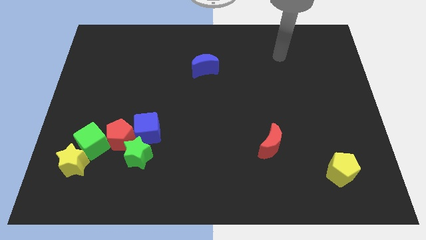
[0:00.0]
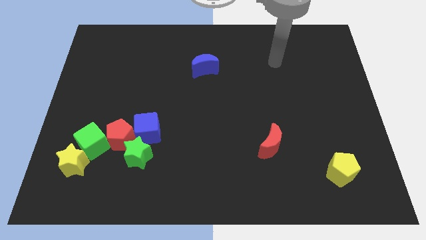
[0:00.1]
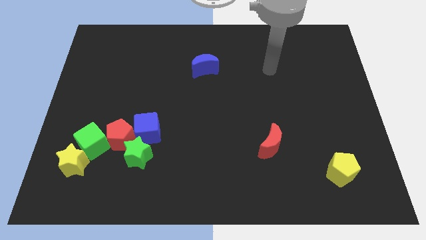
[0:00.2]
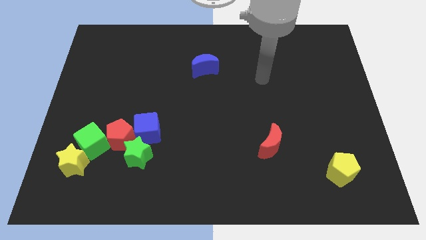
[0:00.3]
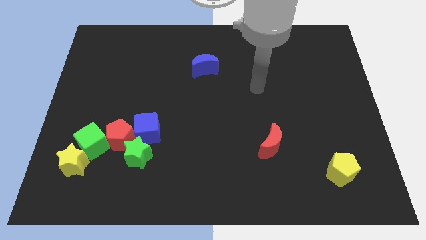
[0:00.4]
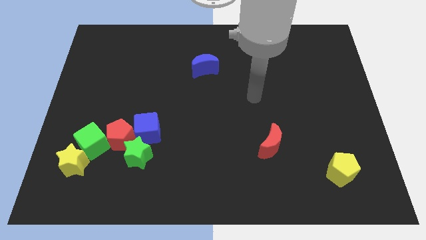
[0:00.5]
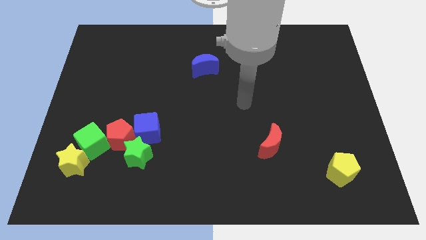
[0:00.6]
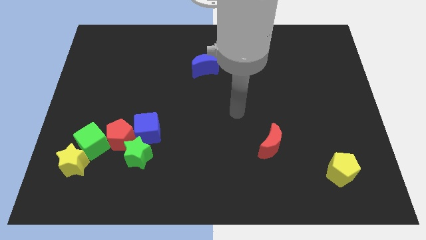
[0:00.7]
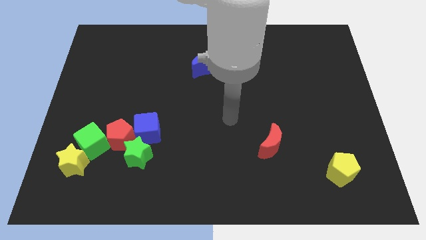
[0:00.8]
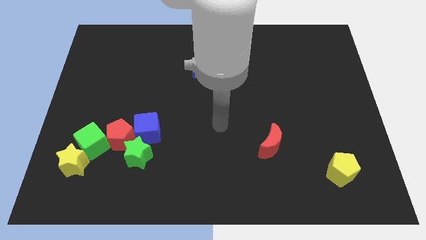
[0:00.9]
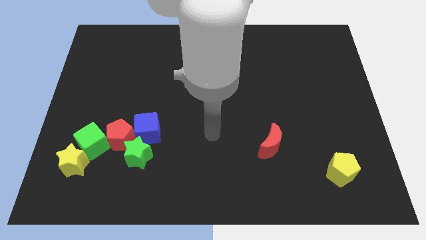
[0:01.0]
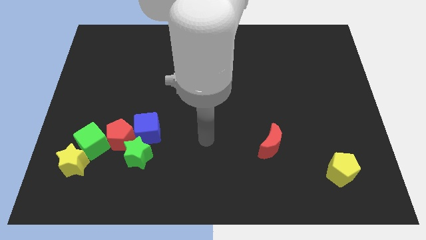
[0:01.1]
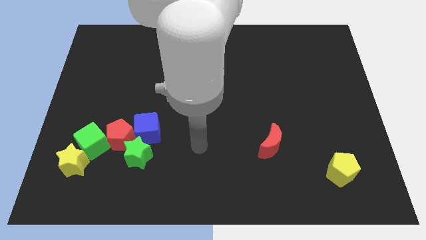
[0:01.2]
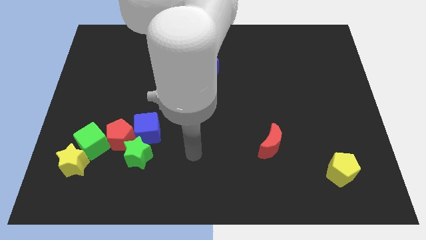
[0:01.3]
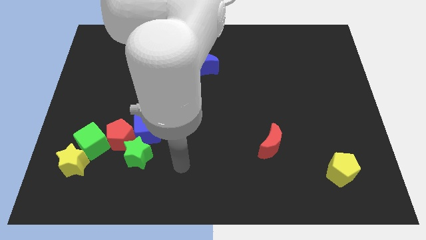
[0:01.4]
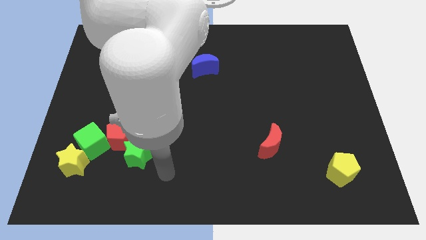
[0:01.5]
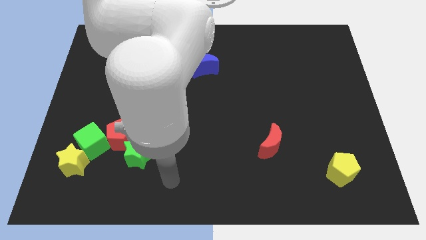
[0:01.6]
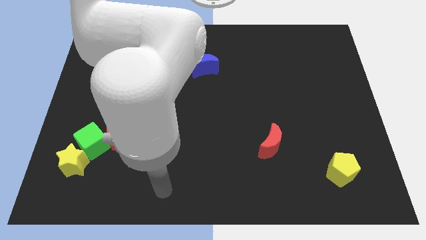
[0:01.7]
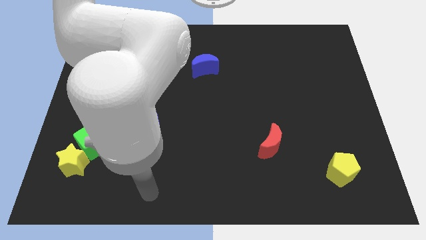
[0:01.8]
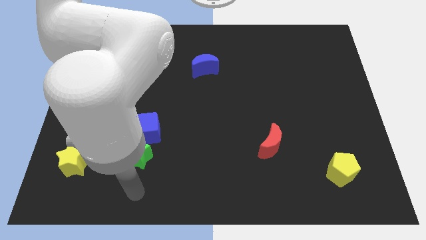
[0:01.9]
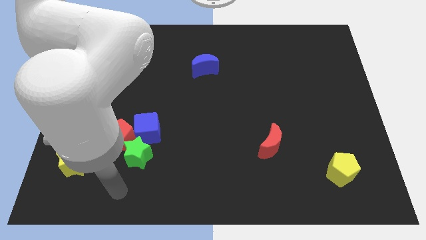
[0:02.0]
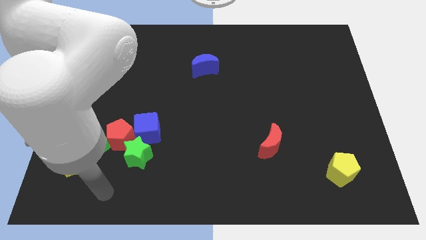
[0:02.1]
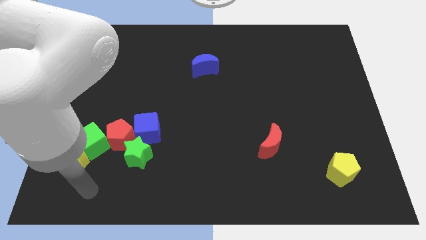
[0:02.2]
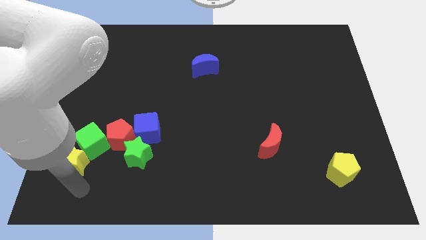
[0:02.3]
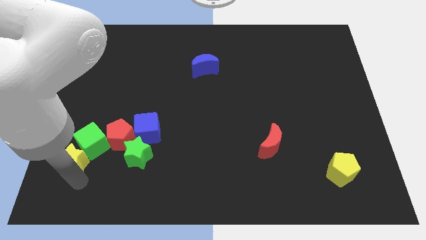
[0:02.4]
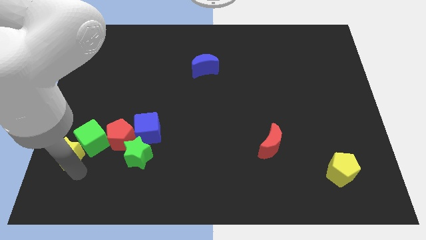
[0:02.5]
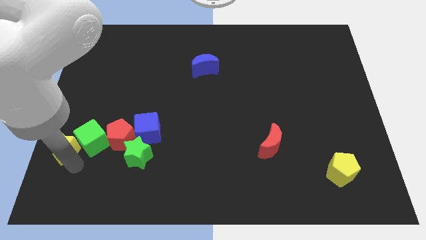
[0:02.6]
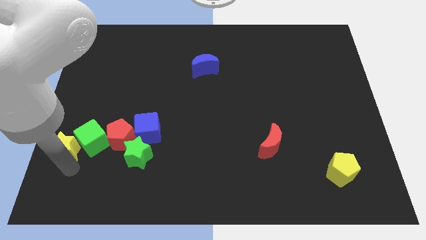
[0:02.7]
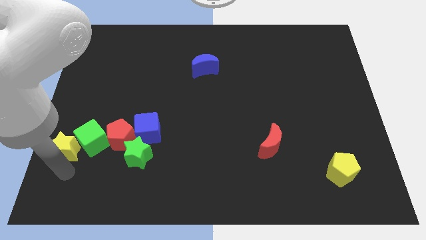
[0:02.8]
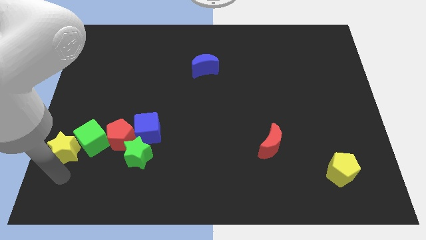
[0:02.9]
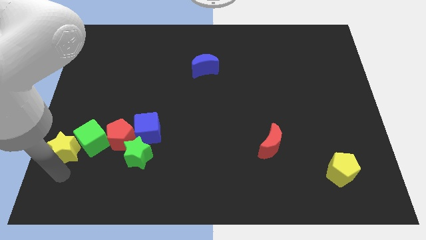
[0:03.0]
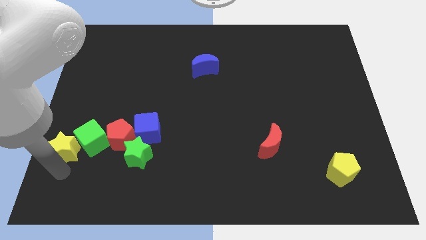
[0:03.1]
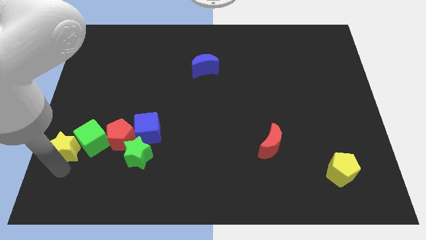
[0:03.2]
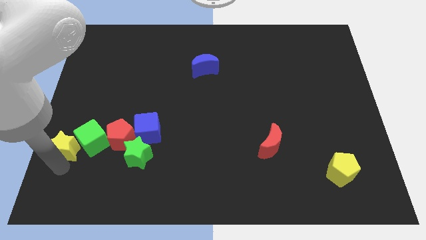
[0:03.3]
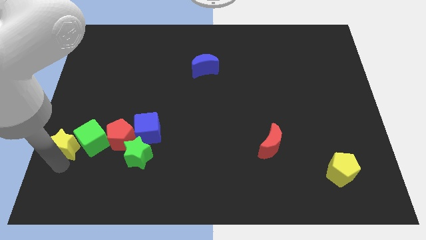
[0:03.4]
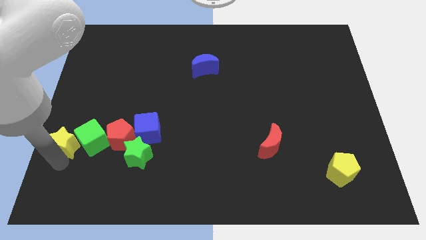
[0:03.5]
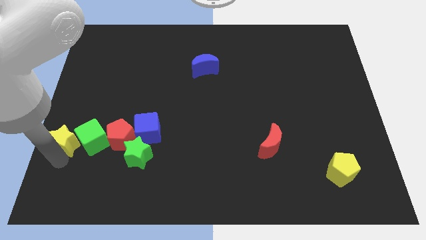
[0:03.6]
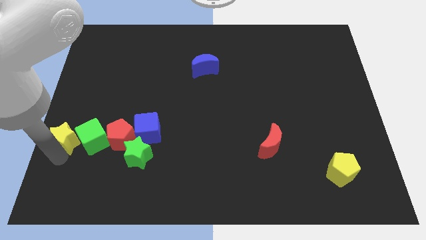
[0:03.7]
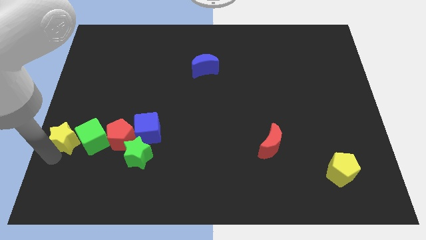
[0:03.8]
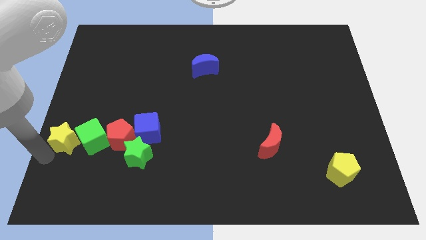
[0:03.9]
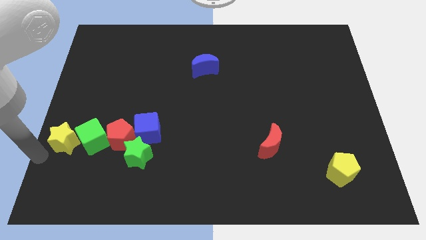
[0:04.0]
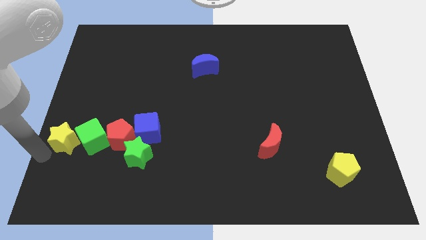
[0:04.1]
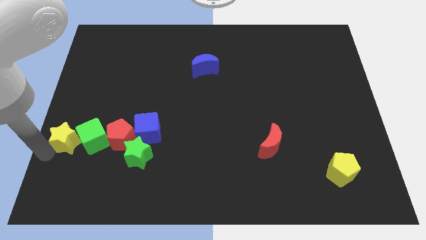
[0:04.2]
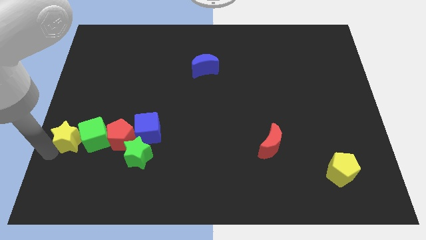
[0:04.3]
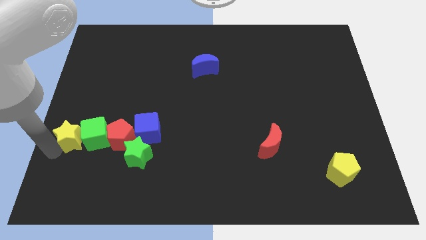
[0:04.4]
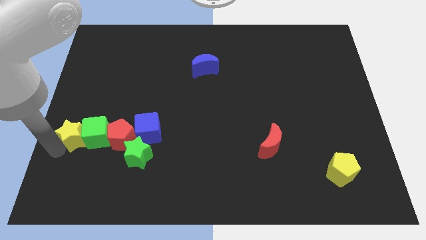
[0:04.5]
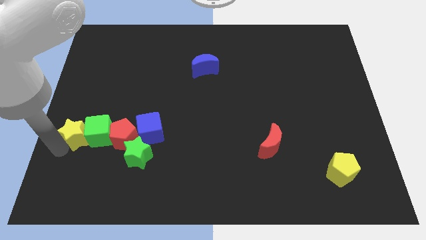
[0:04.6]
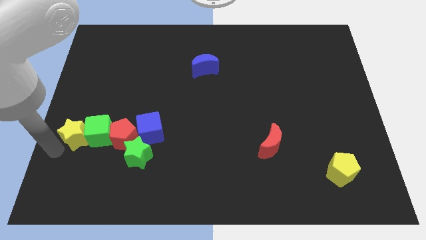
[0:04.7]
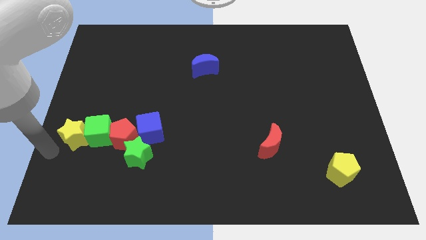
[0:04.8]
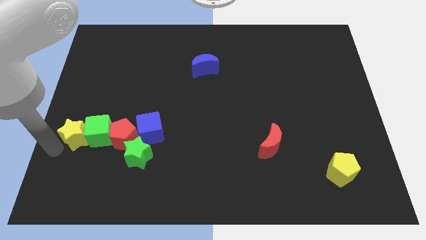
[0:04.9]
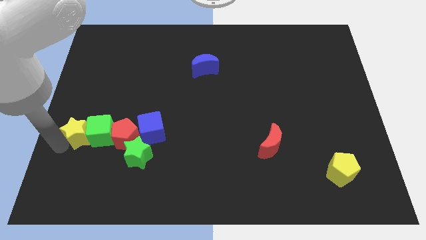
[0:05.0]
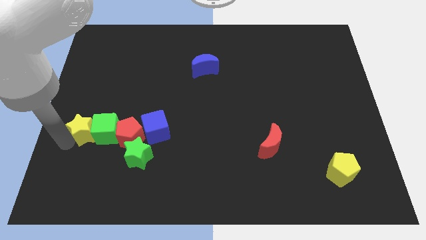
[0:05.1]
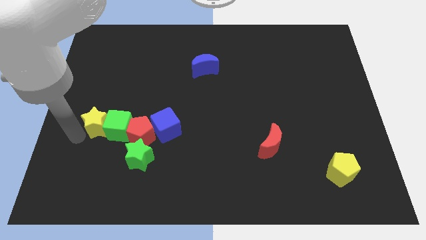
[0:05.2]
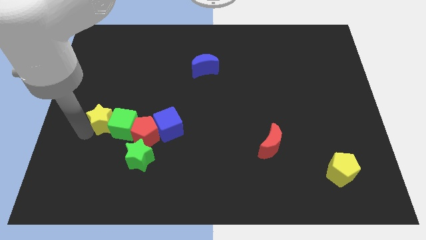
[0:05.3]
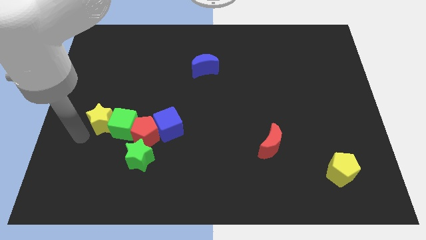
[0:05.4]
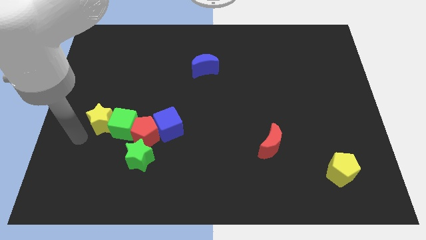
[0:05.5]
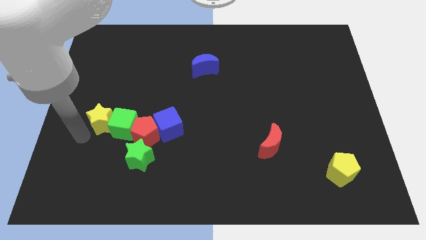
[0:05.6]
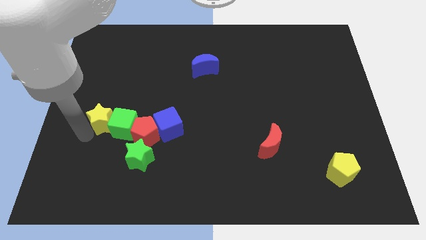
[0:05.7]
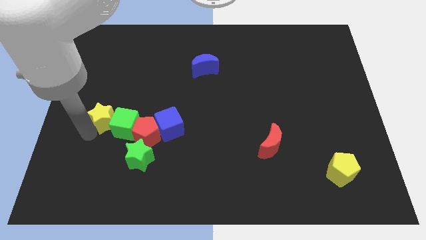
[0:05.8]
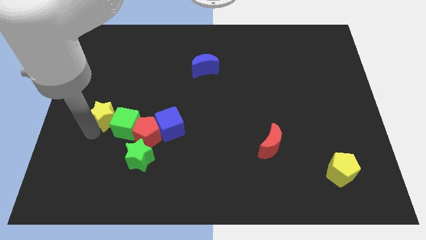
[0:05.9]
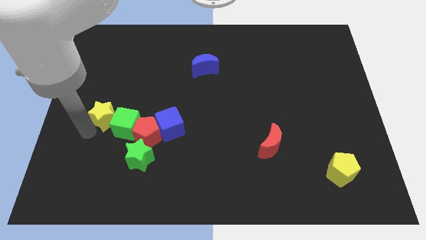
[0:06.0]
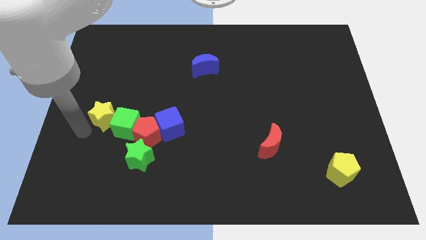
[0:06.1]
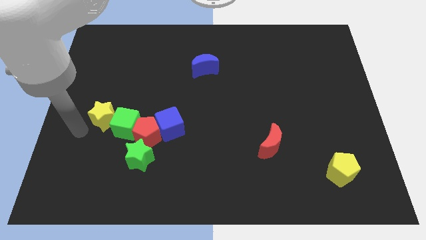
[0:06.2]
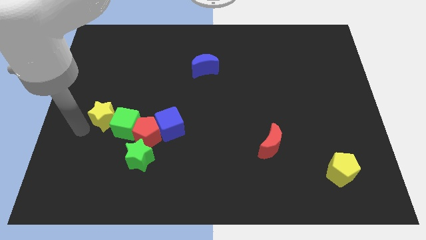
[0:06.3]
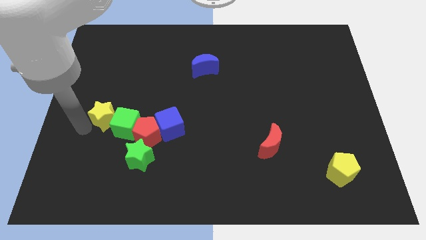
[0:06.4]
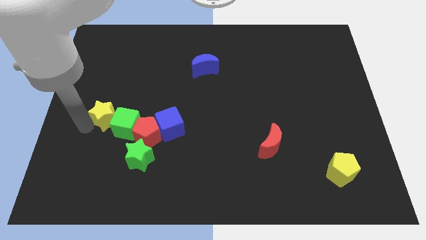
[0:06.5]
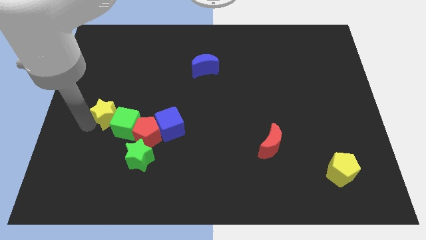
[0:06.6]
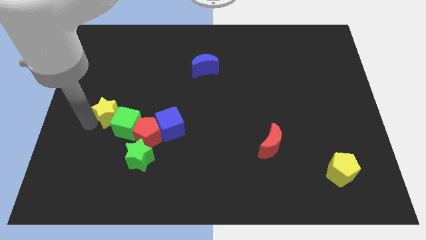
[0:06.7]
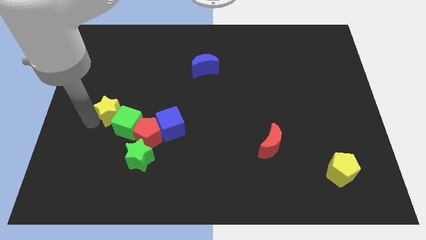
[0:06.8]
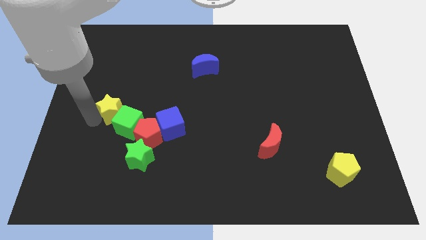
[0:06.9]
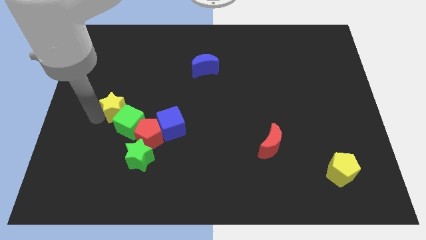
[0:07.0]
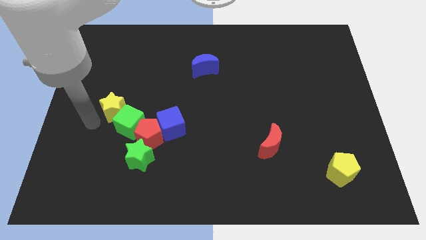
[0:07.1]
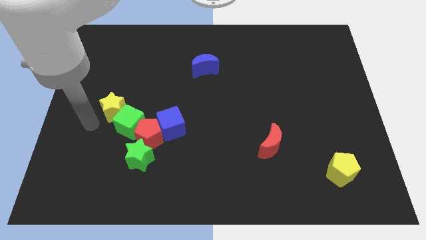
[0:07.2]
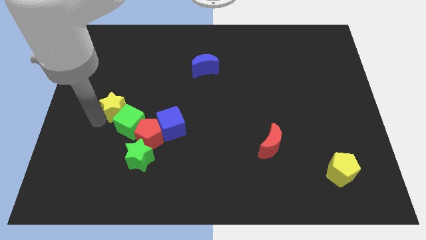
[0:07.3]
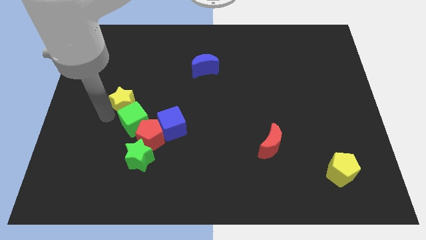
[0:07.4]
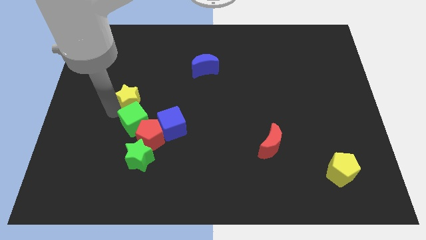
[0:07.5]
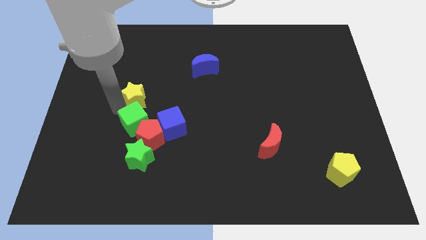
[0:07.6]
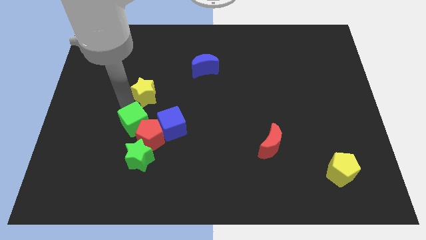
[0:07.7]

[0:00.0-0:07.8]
move the yellow star upwards and to the right
